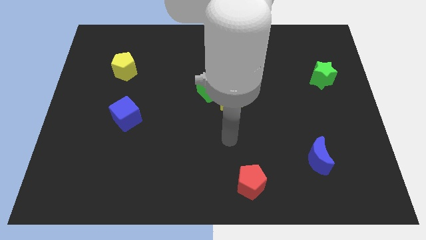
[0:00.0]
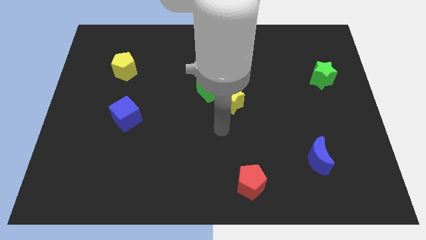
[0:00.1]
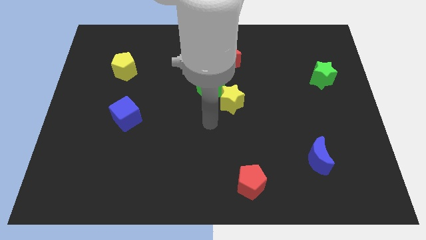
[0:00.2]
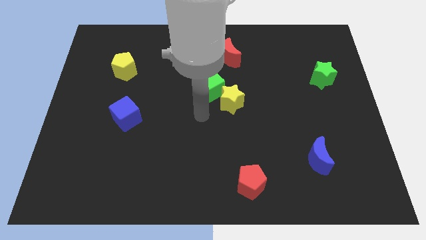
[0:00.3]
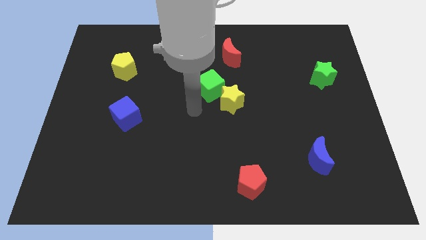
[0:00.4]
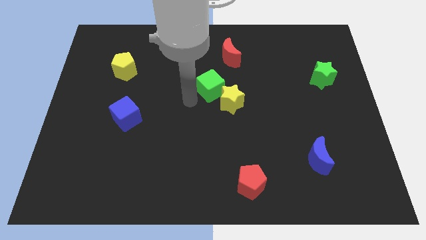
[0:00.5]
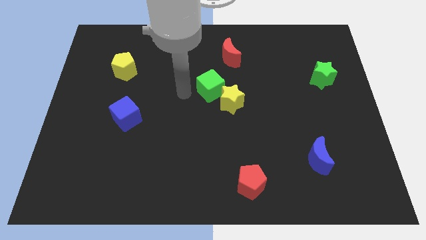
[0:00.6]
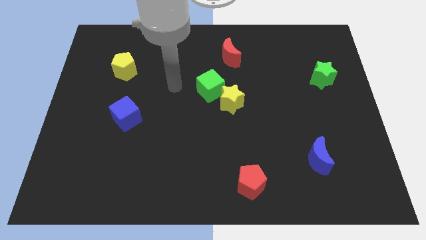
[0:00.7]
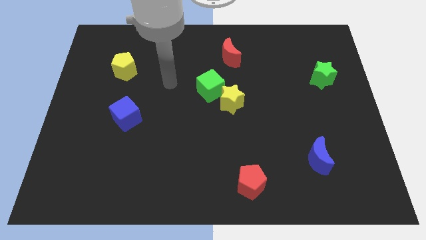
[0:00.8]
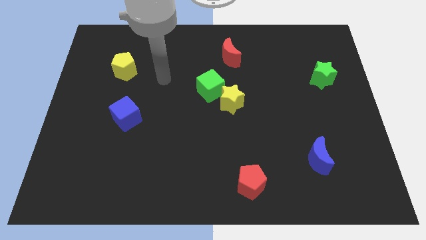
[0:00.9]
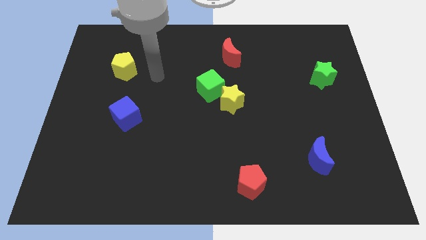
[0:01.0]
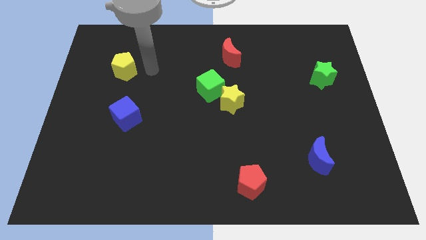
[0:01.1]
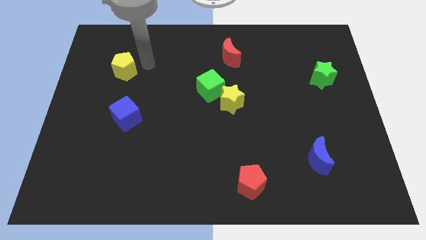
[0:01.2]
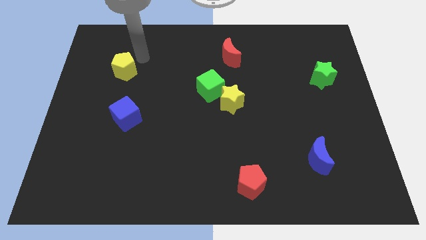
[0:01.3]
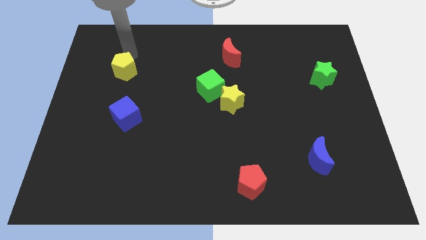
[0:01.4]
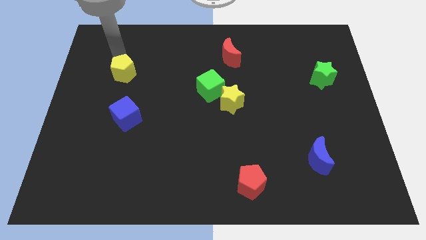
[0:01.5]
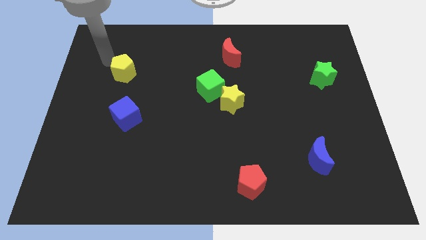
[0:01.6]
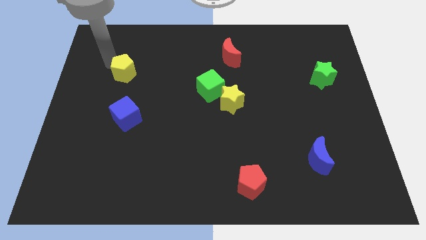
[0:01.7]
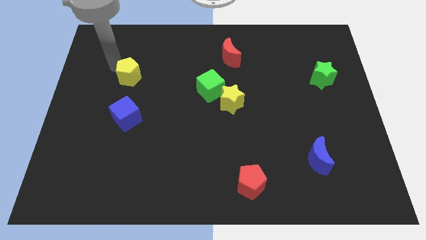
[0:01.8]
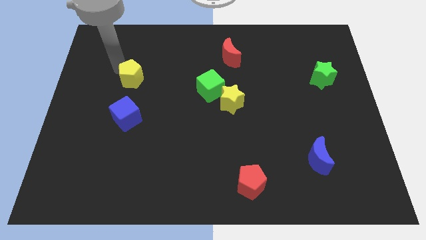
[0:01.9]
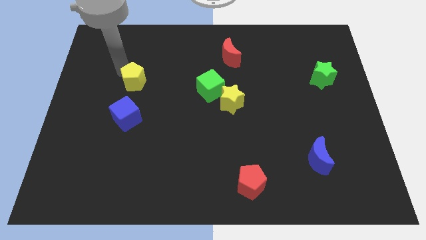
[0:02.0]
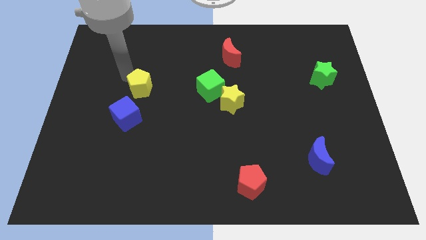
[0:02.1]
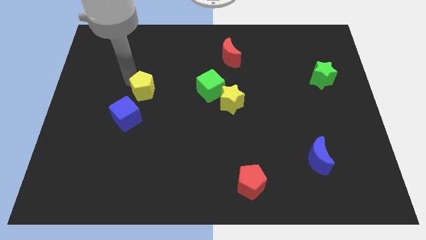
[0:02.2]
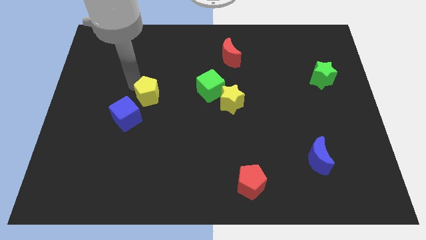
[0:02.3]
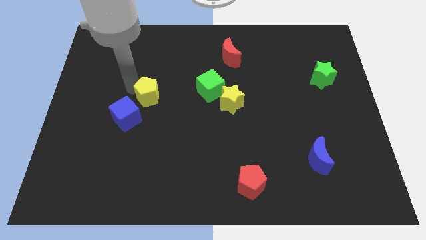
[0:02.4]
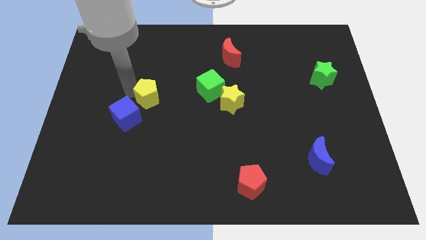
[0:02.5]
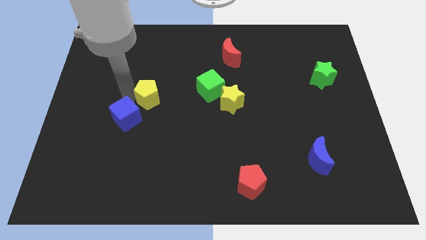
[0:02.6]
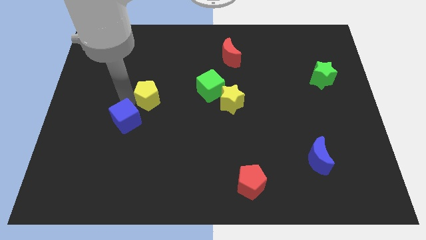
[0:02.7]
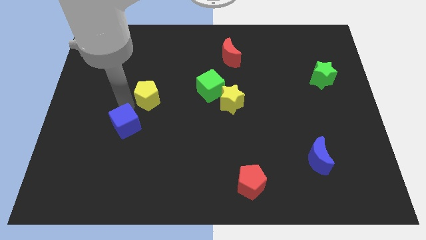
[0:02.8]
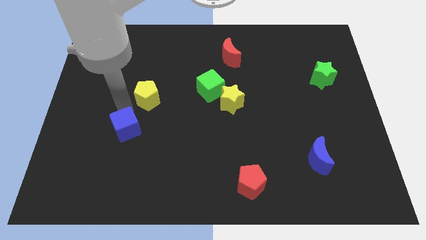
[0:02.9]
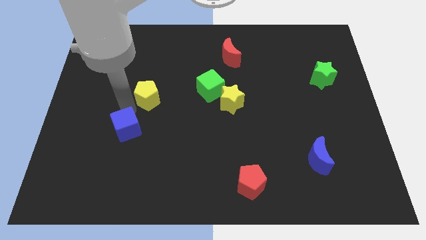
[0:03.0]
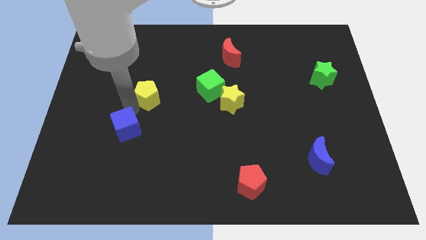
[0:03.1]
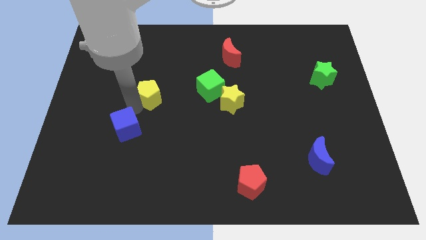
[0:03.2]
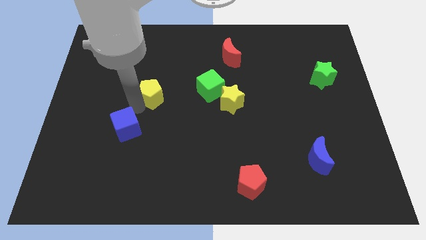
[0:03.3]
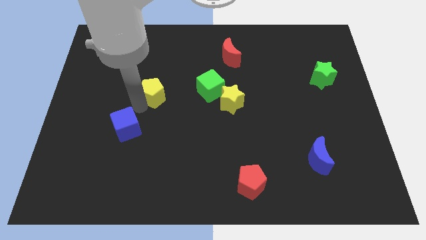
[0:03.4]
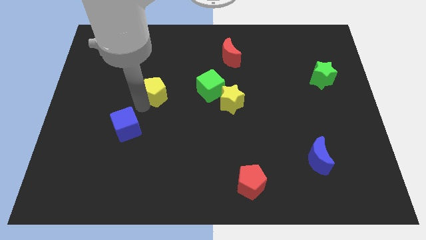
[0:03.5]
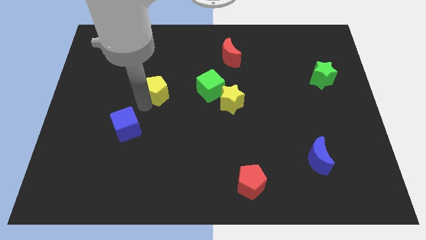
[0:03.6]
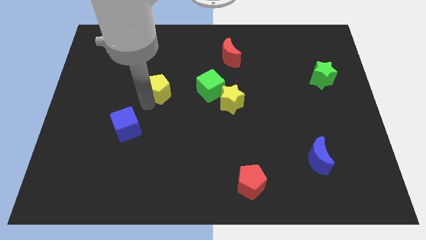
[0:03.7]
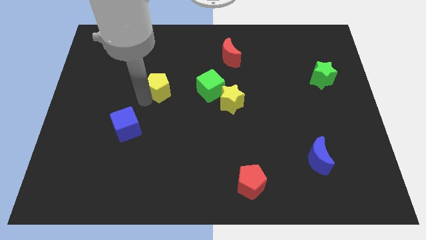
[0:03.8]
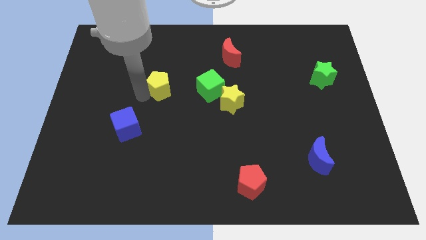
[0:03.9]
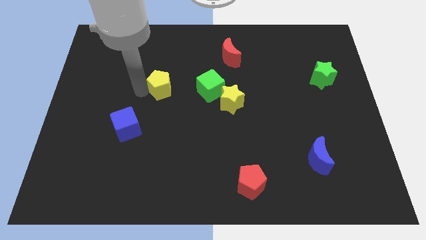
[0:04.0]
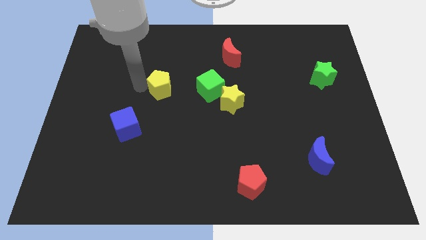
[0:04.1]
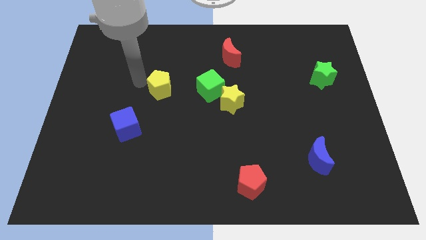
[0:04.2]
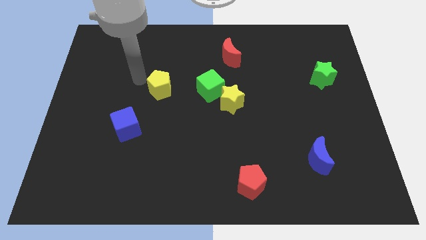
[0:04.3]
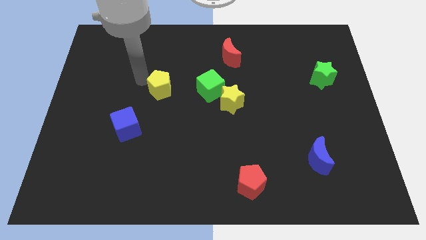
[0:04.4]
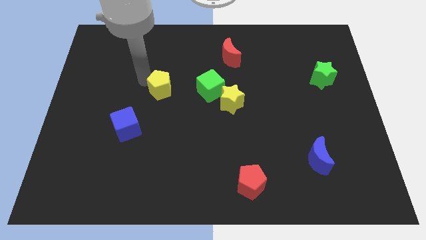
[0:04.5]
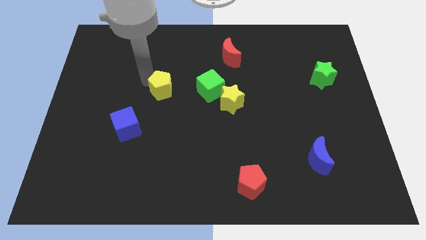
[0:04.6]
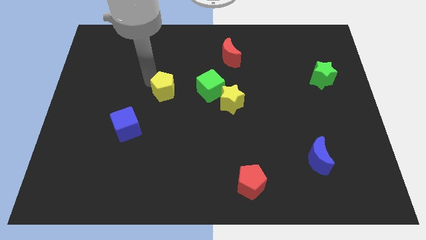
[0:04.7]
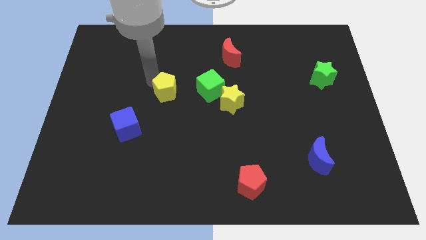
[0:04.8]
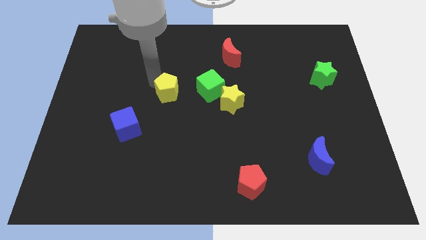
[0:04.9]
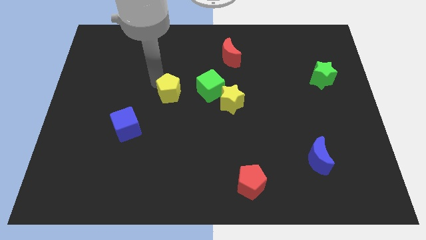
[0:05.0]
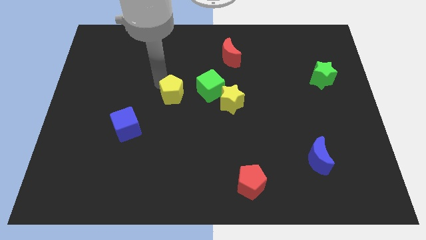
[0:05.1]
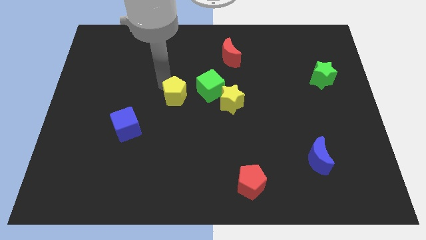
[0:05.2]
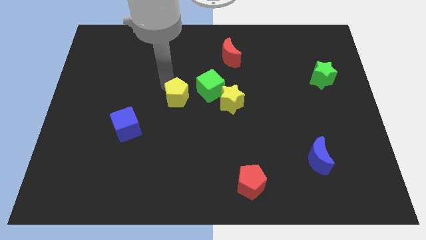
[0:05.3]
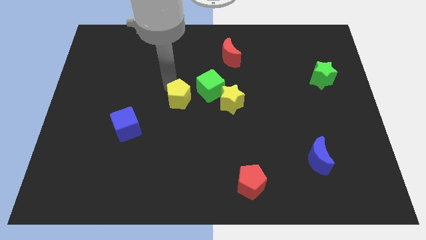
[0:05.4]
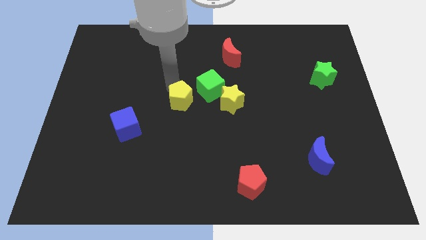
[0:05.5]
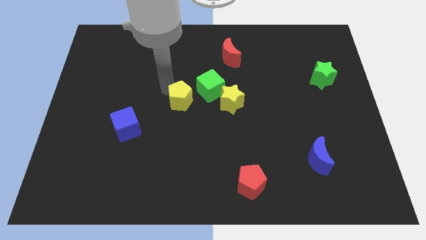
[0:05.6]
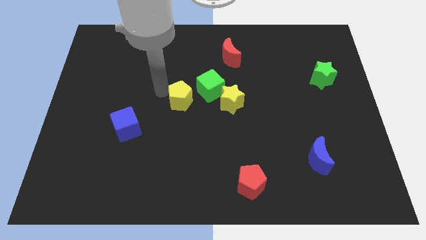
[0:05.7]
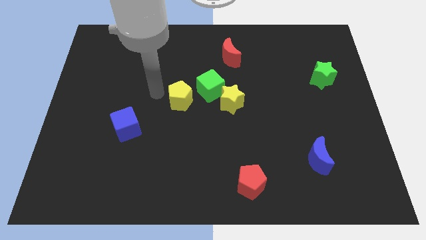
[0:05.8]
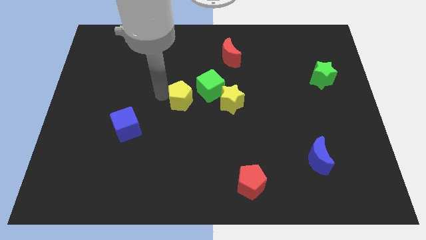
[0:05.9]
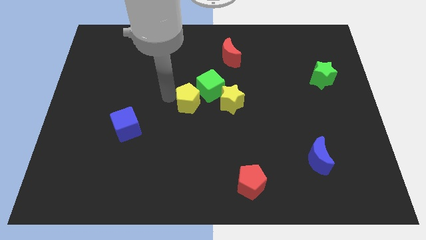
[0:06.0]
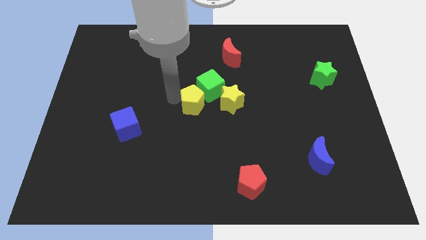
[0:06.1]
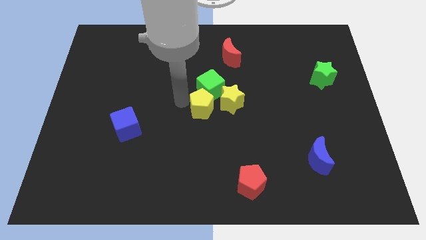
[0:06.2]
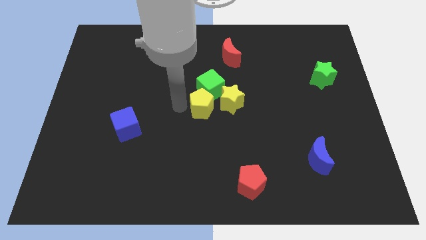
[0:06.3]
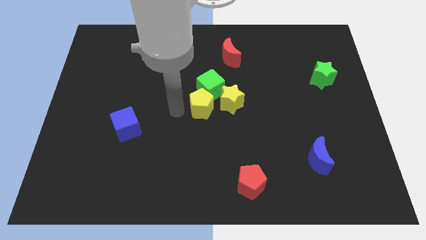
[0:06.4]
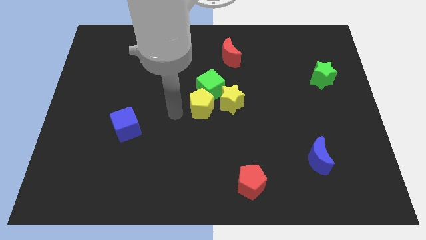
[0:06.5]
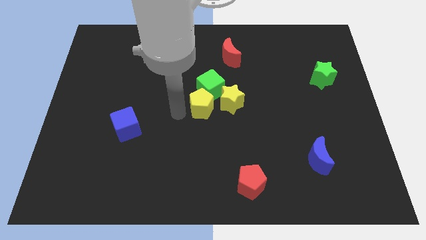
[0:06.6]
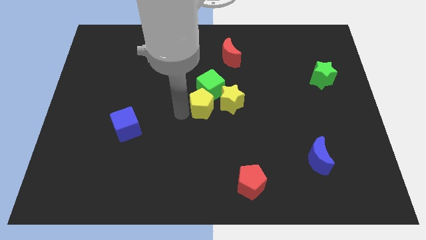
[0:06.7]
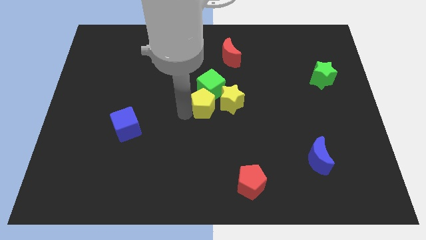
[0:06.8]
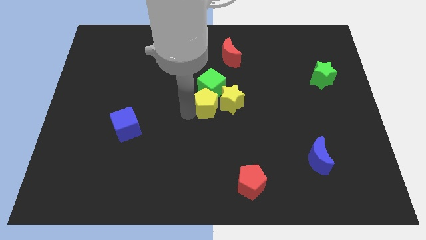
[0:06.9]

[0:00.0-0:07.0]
slide the yellow pentagon to the yellow star
